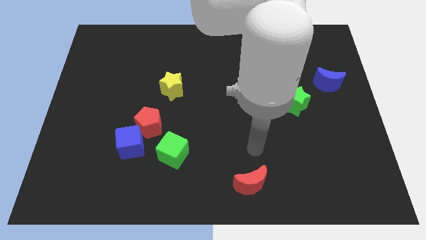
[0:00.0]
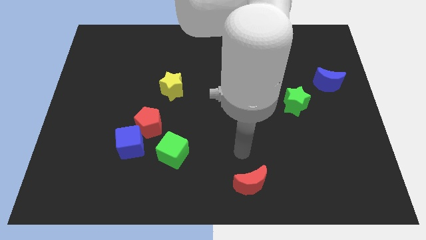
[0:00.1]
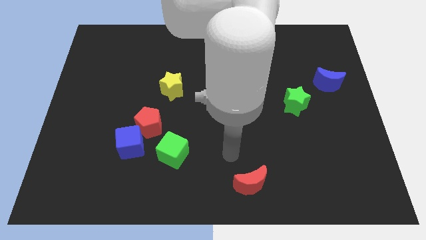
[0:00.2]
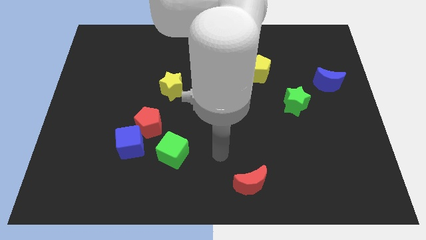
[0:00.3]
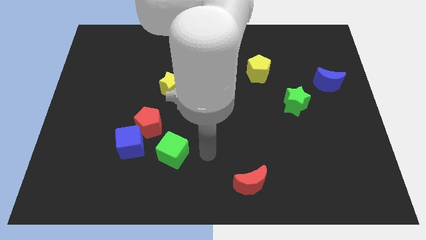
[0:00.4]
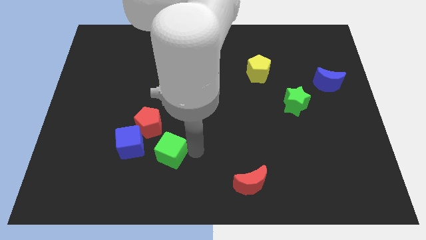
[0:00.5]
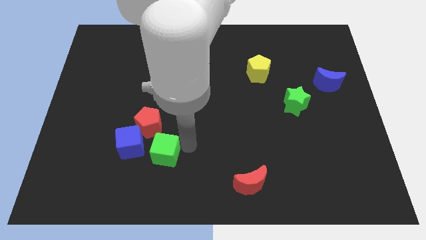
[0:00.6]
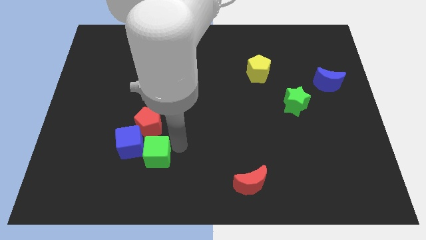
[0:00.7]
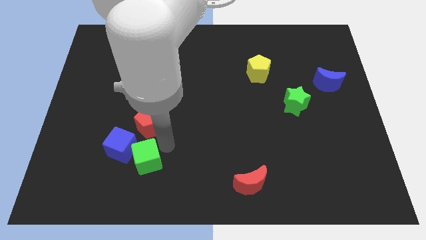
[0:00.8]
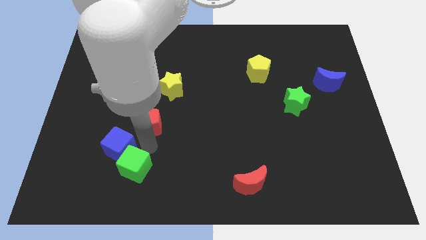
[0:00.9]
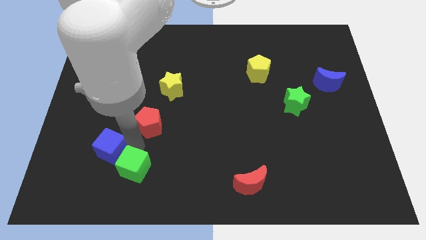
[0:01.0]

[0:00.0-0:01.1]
pull the red pentagon apart from the blue cube and green cube

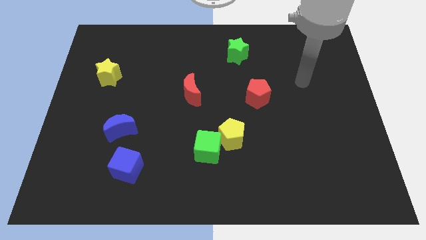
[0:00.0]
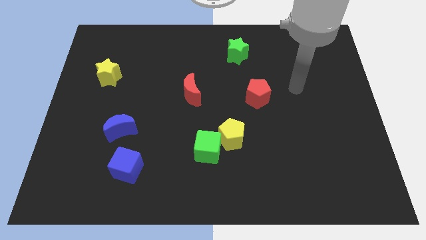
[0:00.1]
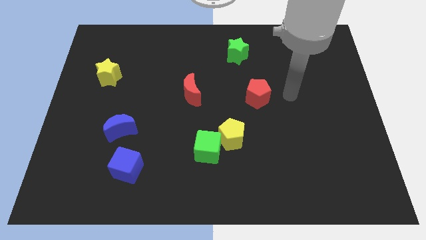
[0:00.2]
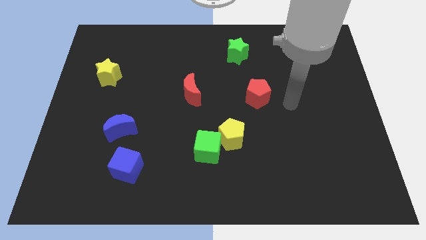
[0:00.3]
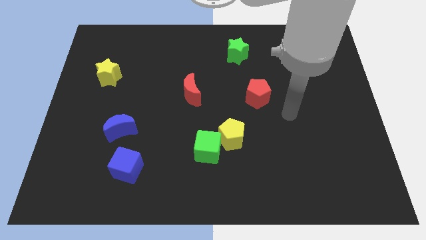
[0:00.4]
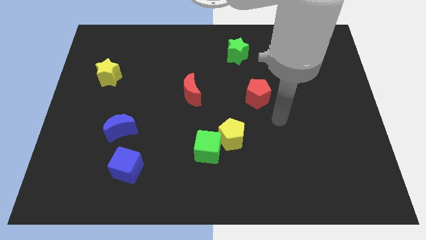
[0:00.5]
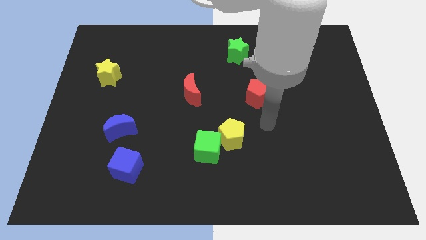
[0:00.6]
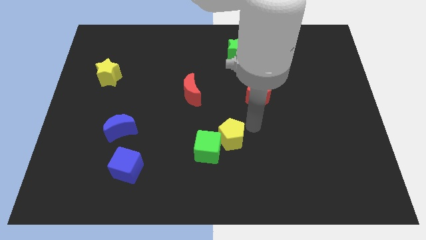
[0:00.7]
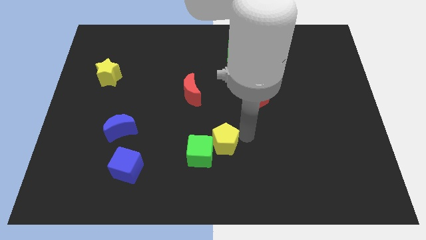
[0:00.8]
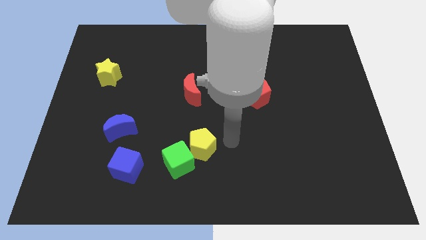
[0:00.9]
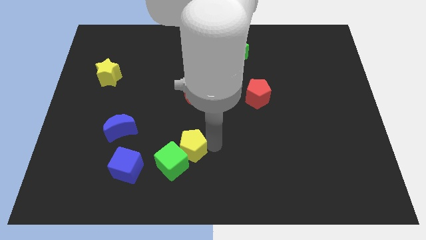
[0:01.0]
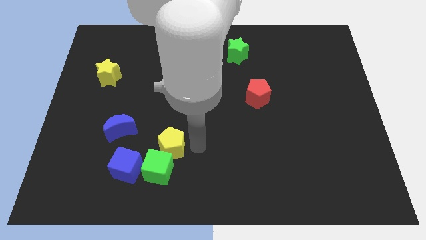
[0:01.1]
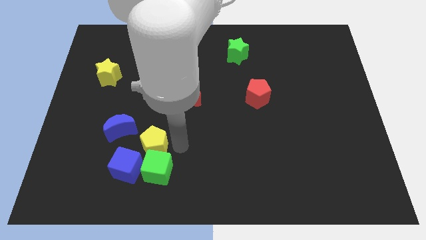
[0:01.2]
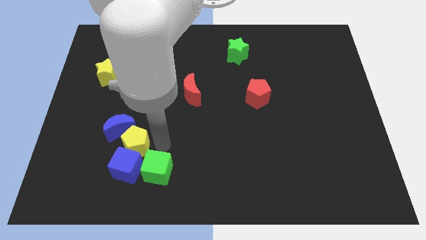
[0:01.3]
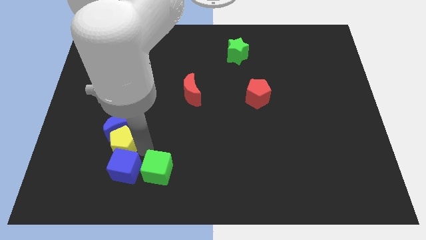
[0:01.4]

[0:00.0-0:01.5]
pull the green cube apart from the yellow pentagon

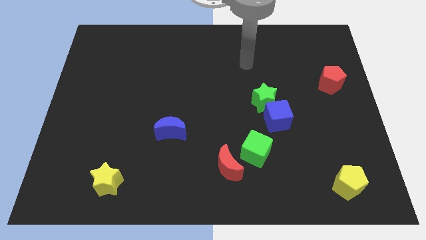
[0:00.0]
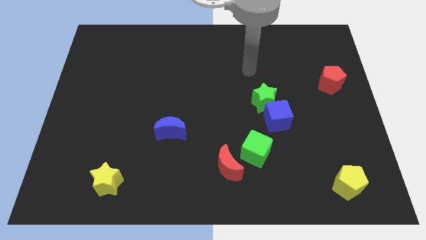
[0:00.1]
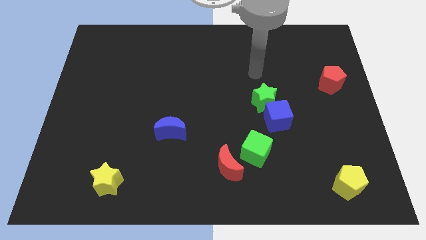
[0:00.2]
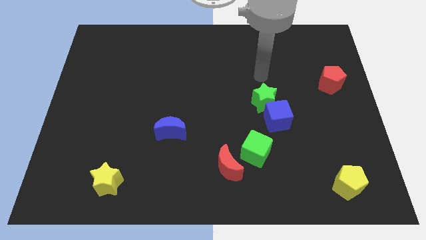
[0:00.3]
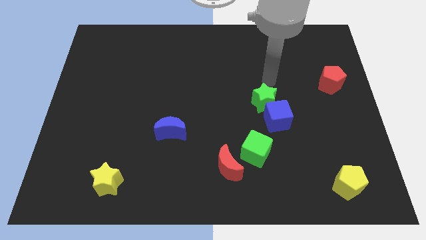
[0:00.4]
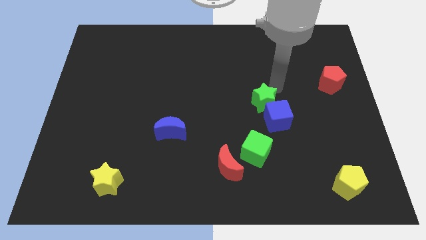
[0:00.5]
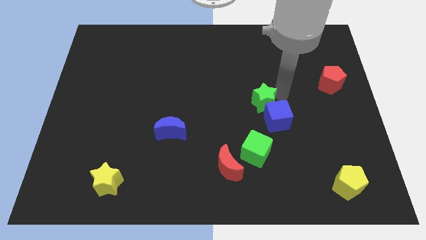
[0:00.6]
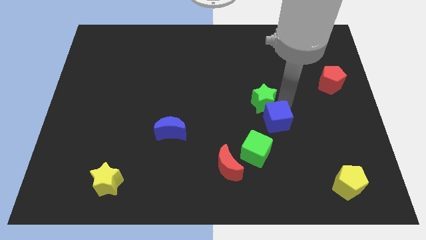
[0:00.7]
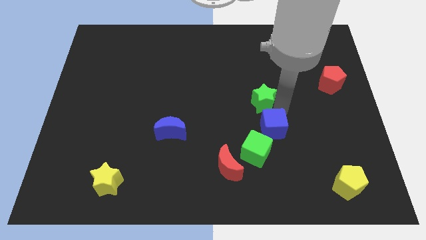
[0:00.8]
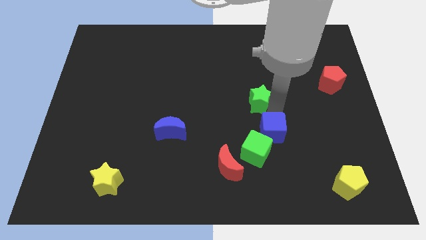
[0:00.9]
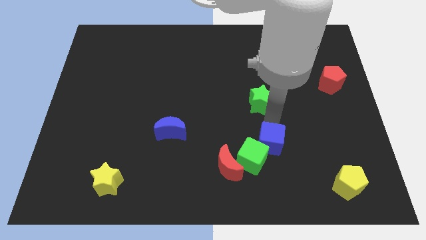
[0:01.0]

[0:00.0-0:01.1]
move the green star away from the blue cube

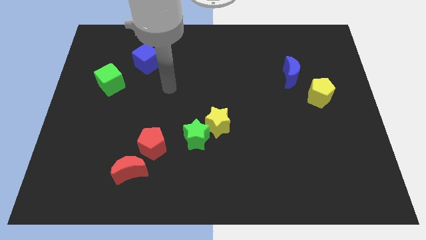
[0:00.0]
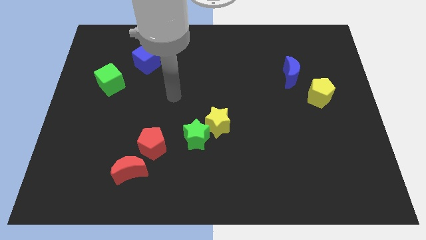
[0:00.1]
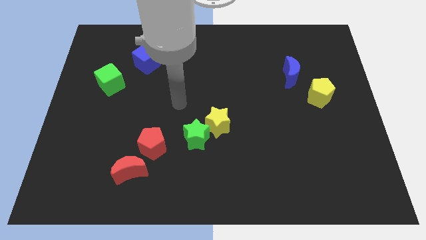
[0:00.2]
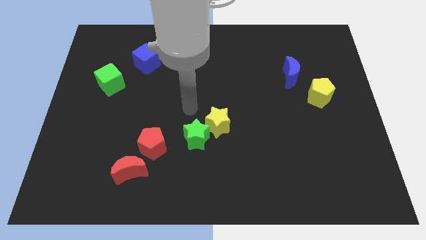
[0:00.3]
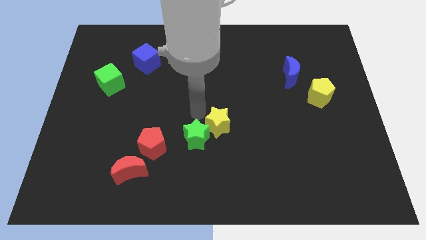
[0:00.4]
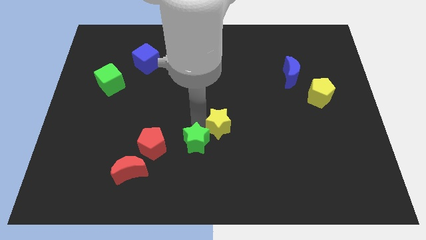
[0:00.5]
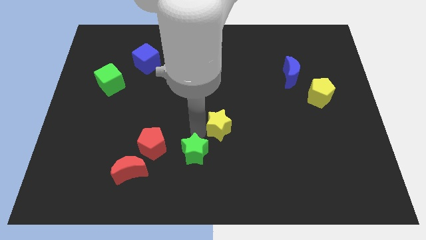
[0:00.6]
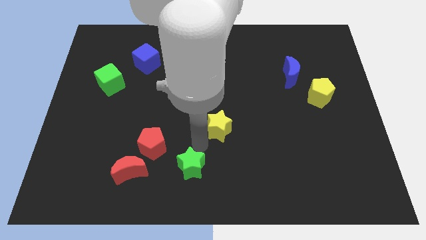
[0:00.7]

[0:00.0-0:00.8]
move the yellow star away from the green star

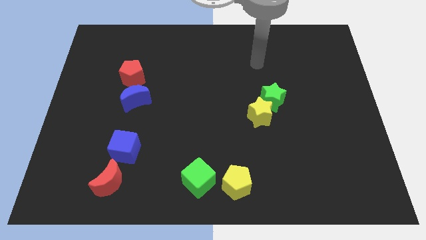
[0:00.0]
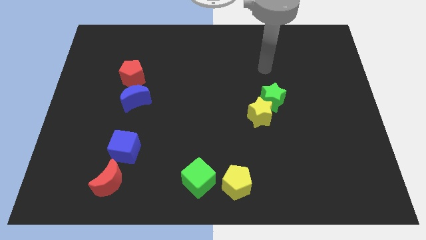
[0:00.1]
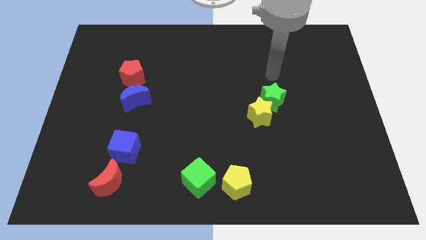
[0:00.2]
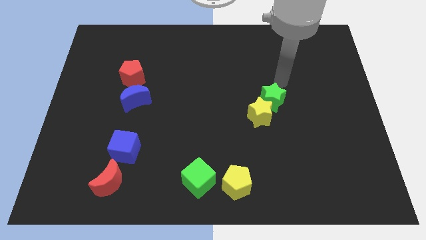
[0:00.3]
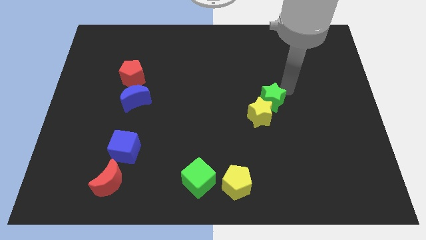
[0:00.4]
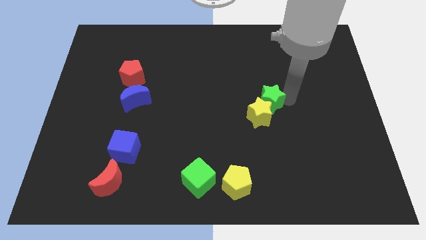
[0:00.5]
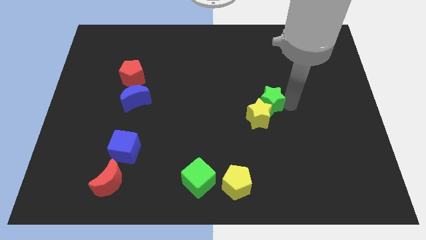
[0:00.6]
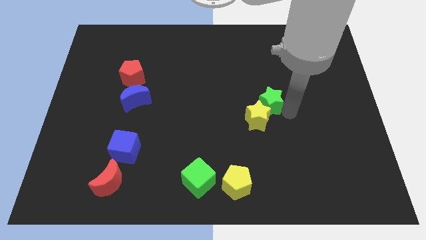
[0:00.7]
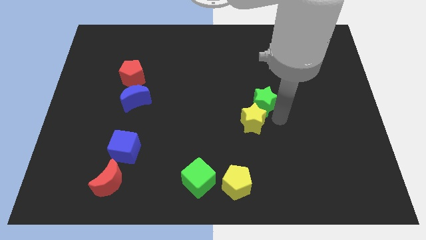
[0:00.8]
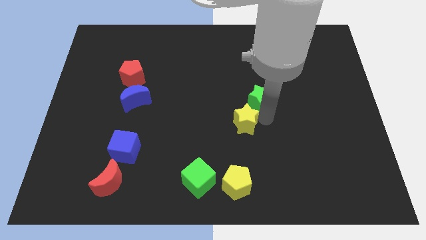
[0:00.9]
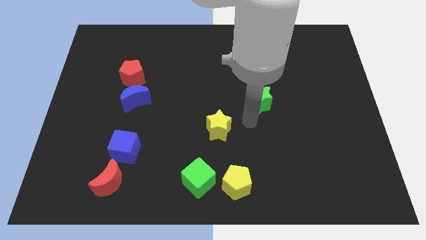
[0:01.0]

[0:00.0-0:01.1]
pull the green star apart from the yellow star

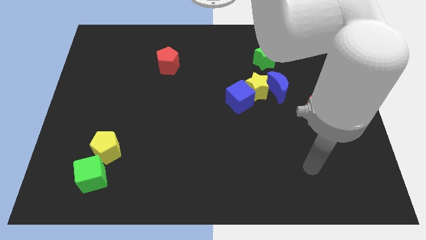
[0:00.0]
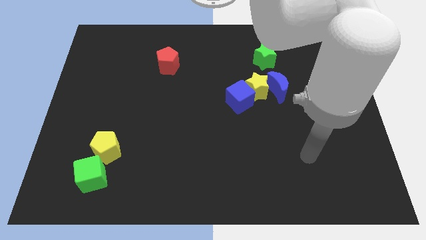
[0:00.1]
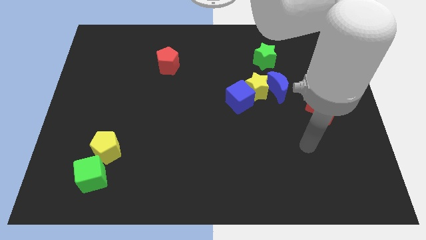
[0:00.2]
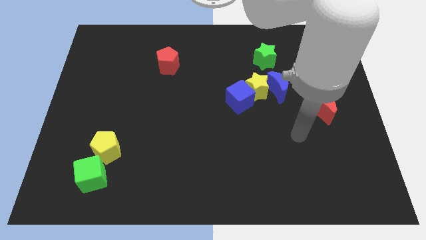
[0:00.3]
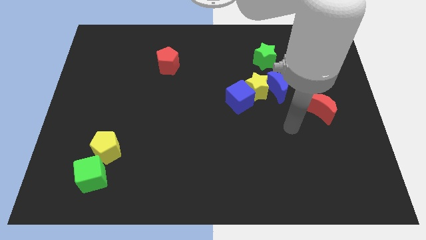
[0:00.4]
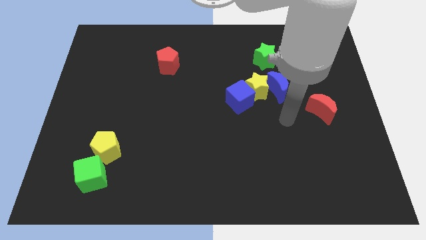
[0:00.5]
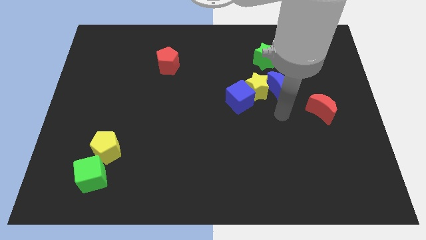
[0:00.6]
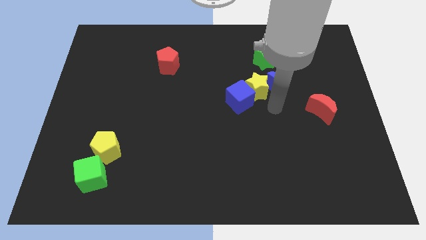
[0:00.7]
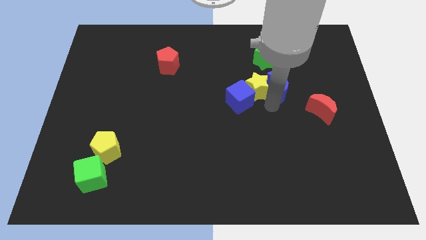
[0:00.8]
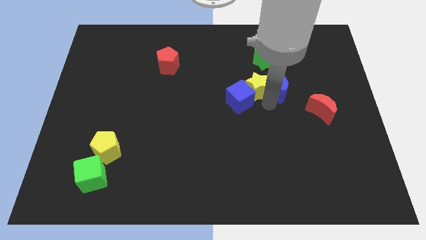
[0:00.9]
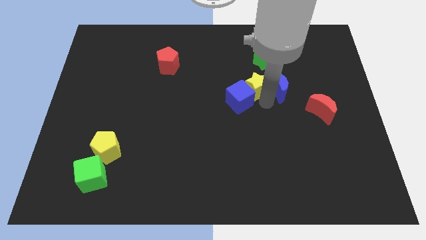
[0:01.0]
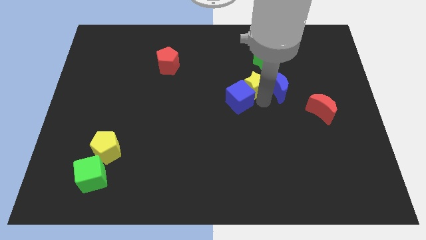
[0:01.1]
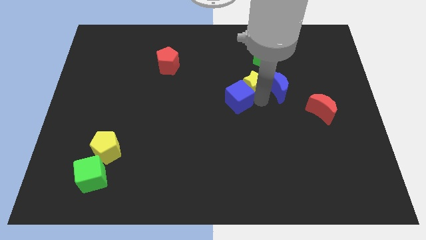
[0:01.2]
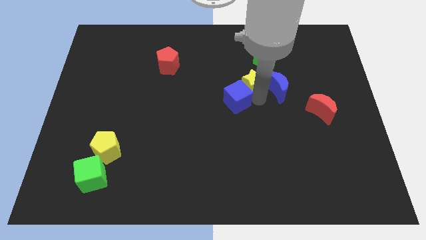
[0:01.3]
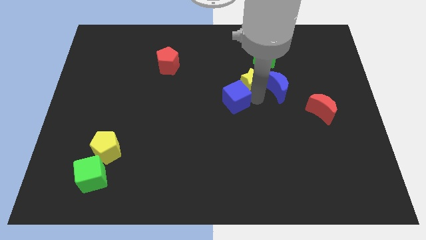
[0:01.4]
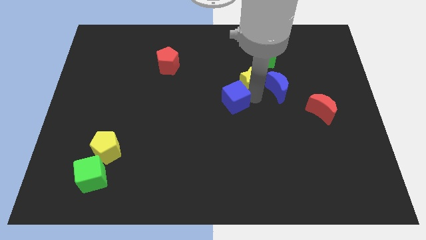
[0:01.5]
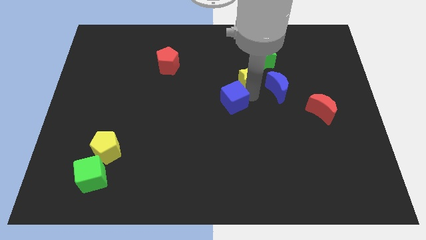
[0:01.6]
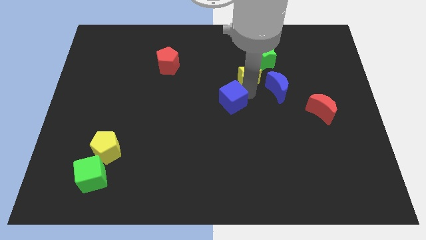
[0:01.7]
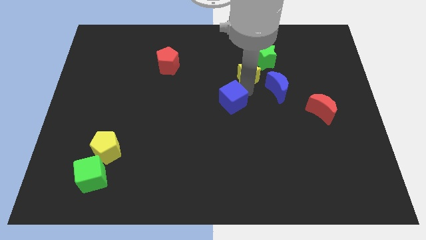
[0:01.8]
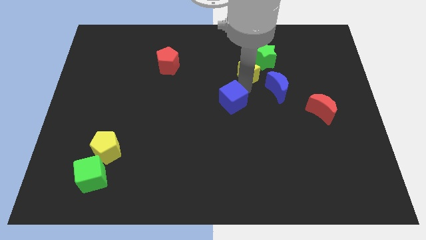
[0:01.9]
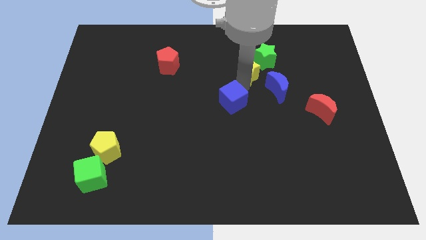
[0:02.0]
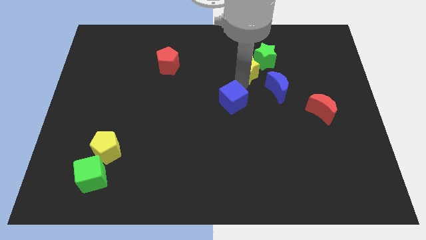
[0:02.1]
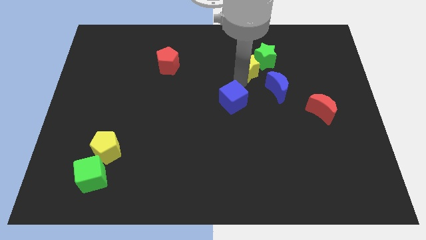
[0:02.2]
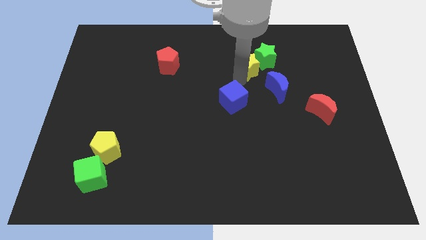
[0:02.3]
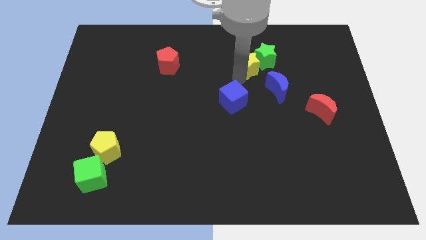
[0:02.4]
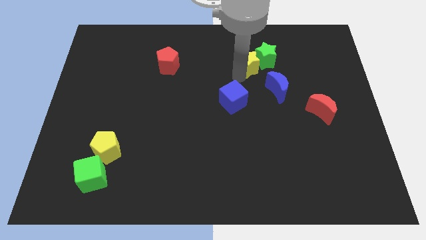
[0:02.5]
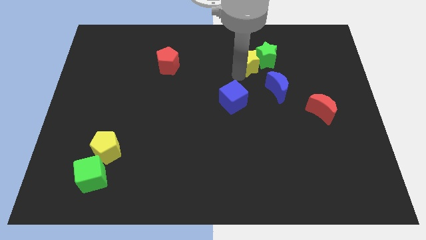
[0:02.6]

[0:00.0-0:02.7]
pull the yellow star apart from the blue cube and blue moon

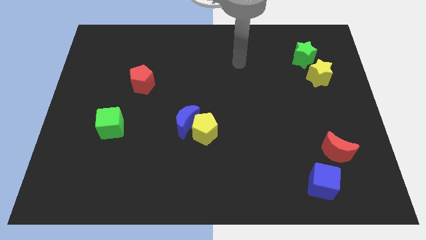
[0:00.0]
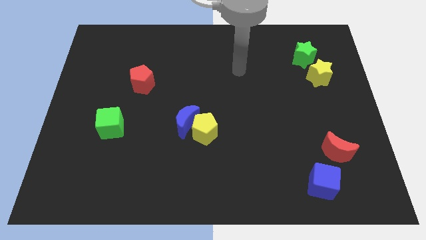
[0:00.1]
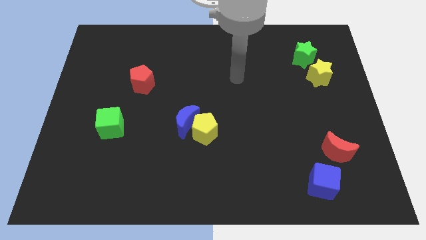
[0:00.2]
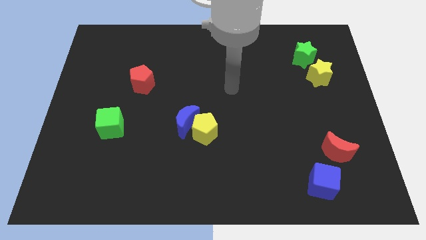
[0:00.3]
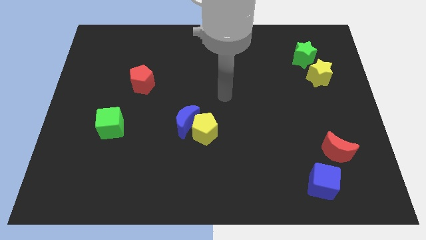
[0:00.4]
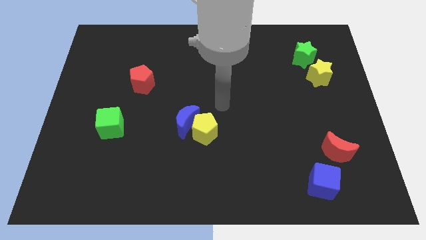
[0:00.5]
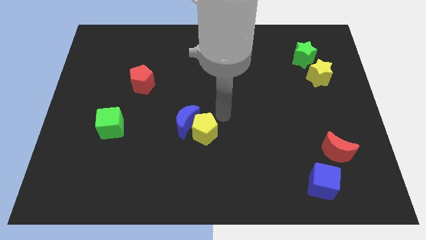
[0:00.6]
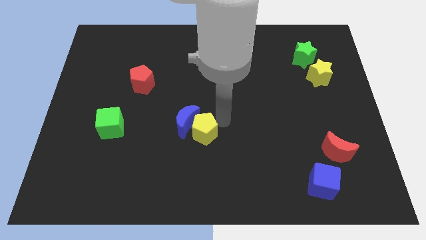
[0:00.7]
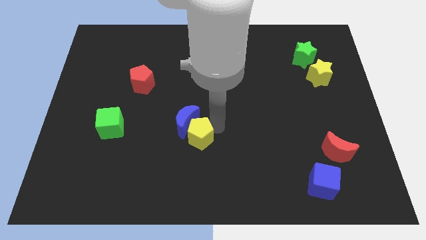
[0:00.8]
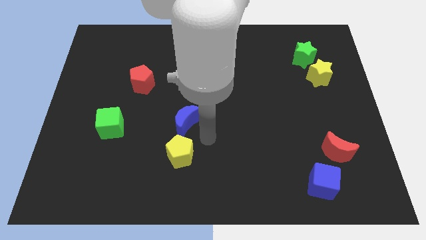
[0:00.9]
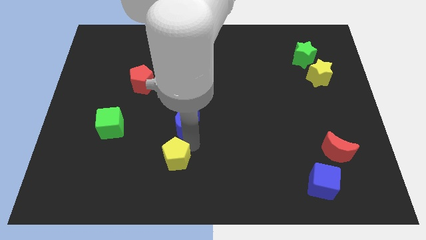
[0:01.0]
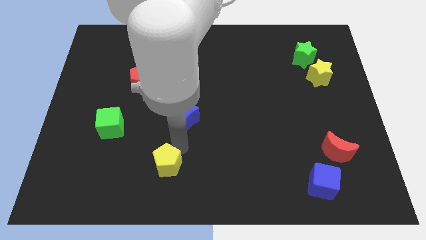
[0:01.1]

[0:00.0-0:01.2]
move the blue moon away from the yellow pentagon
